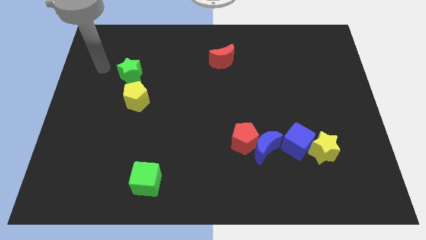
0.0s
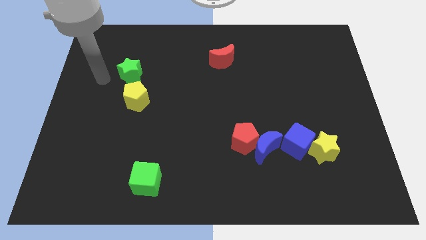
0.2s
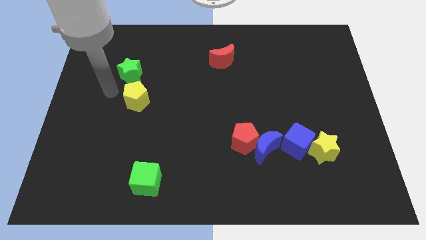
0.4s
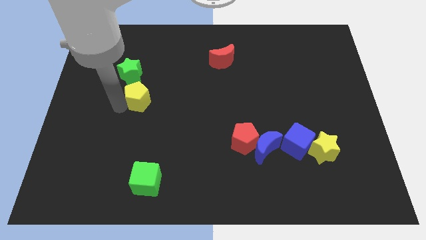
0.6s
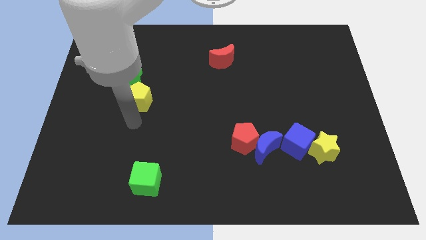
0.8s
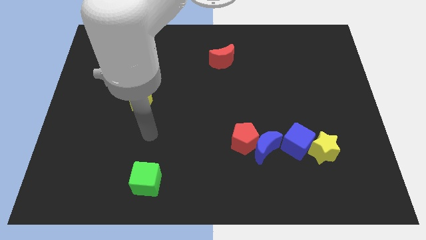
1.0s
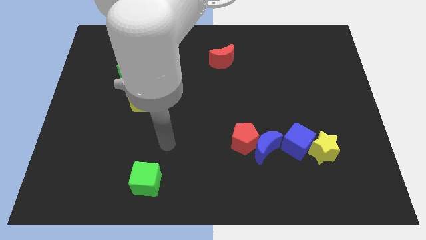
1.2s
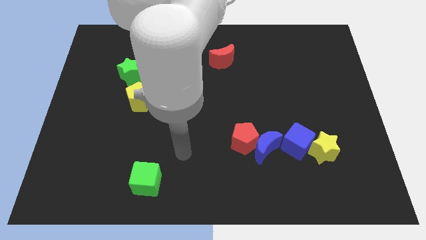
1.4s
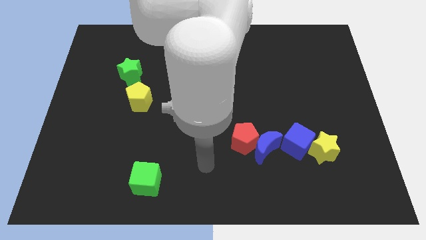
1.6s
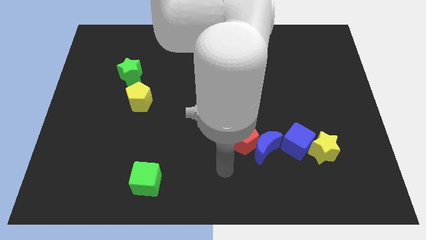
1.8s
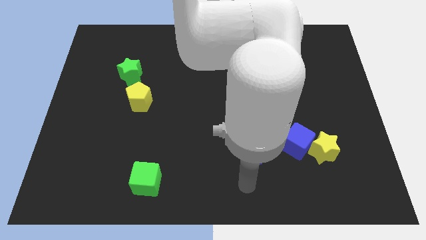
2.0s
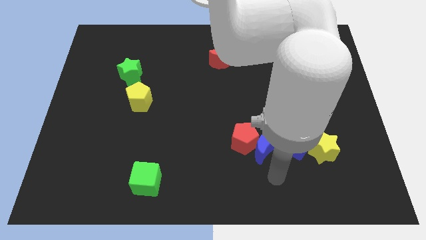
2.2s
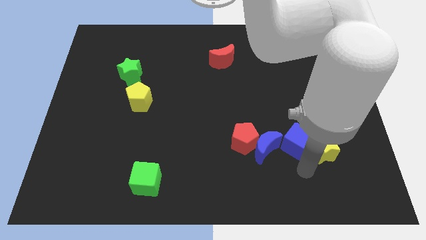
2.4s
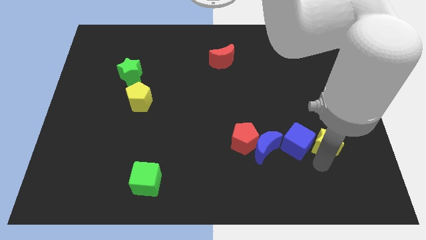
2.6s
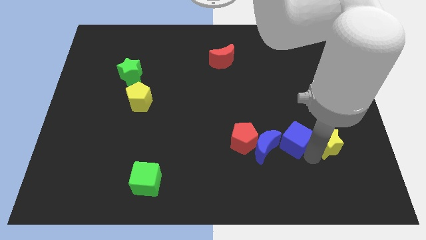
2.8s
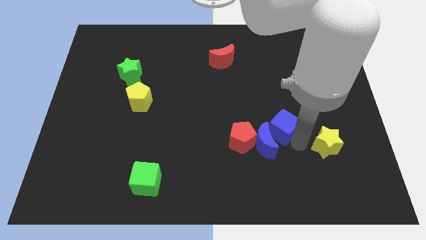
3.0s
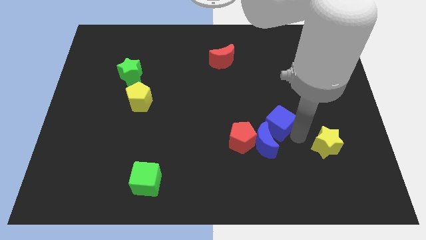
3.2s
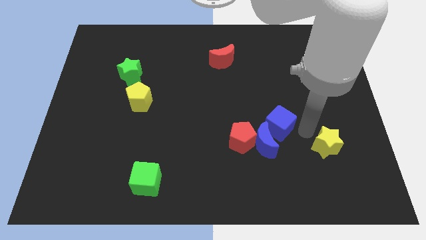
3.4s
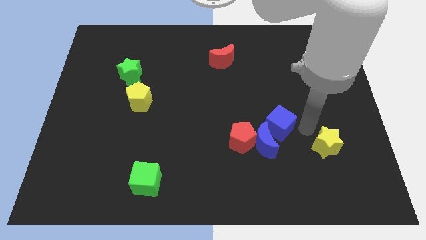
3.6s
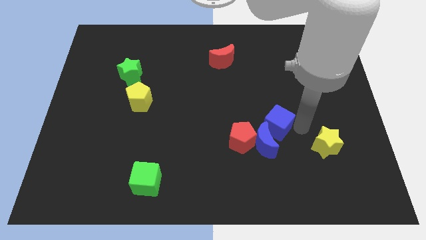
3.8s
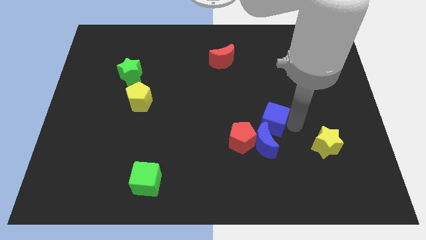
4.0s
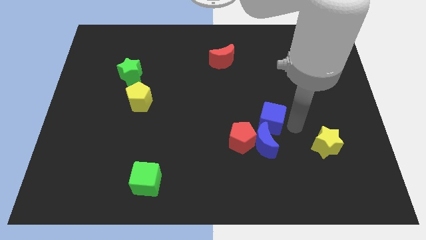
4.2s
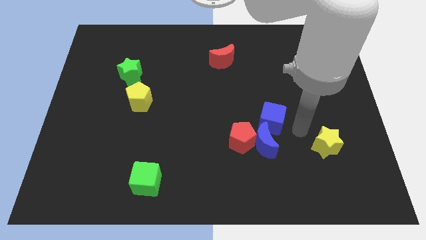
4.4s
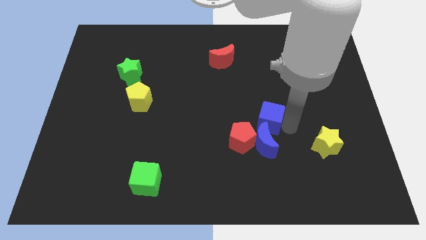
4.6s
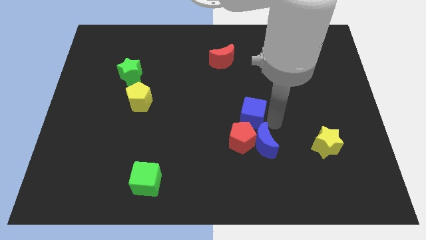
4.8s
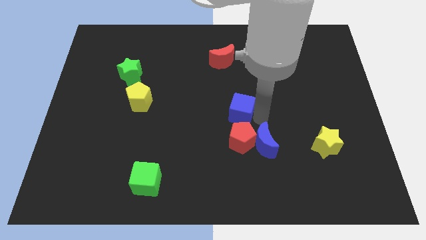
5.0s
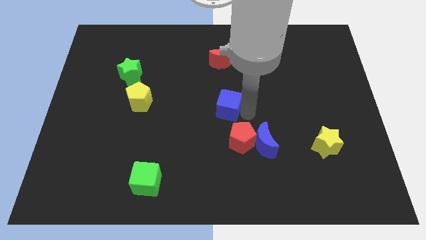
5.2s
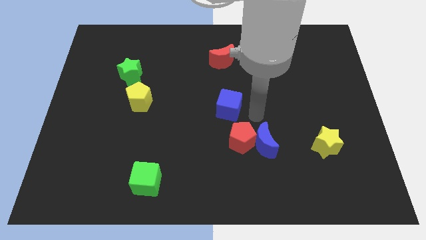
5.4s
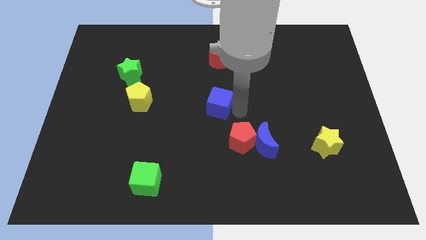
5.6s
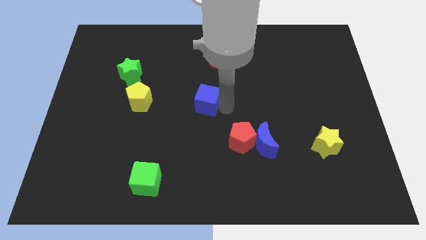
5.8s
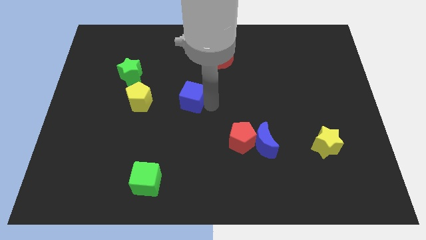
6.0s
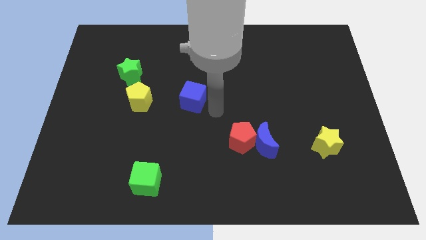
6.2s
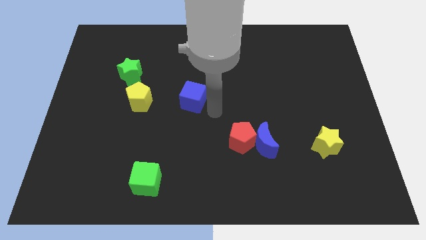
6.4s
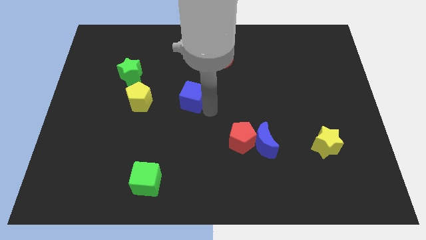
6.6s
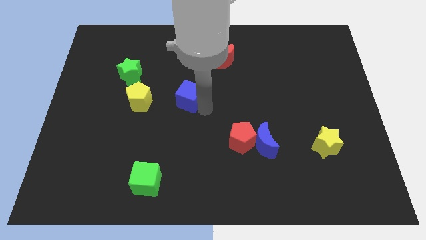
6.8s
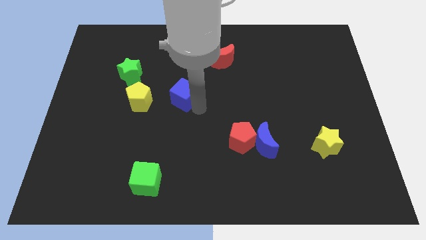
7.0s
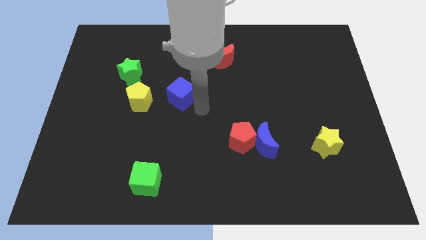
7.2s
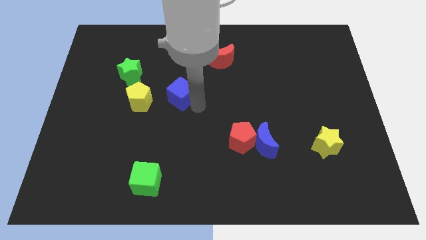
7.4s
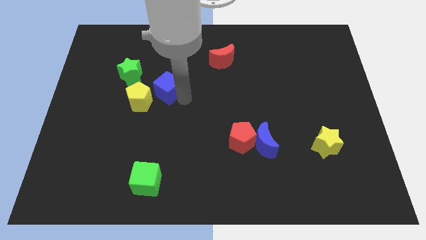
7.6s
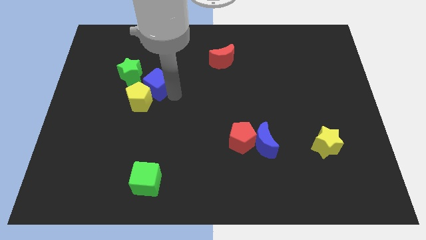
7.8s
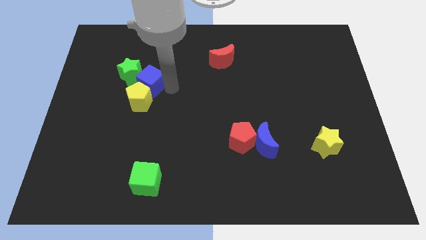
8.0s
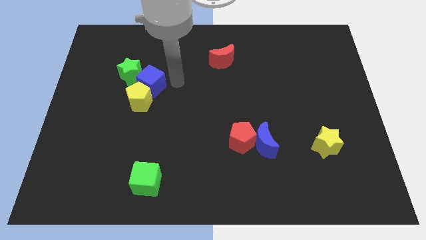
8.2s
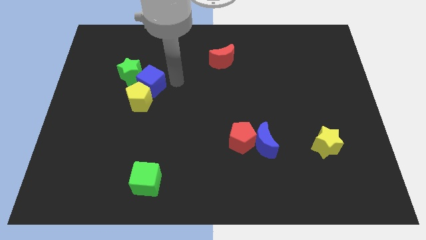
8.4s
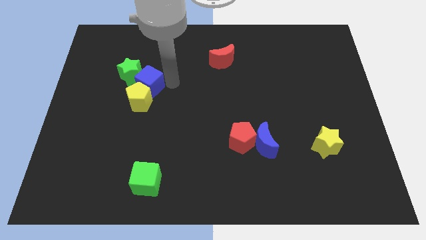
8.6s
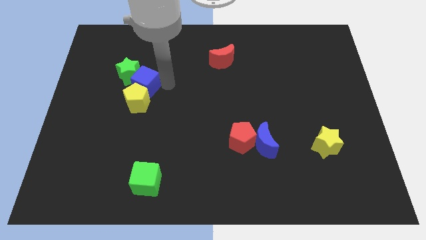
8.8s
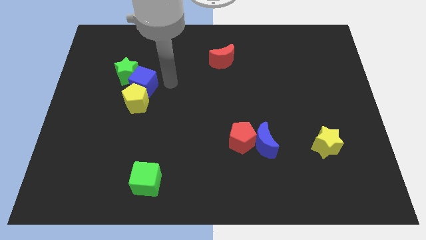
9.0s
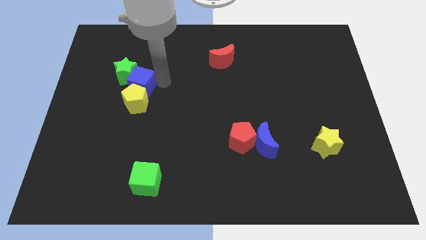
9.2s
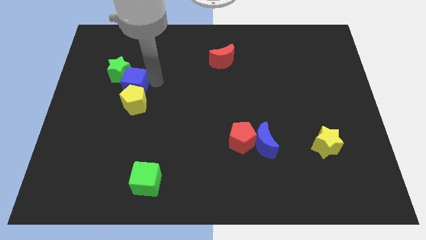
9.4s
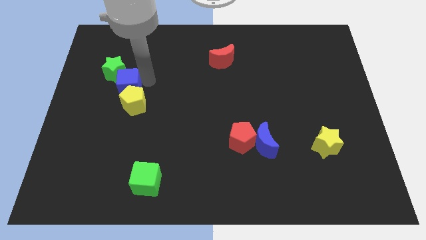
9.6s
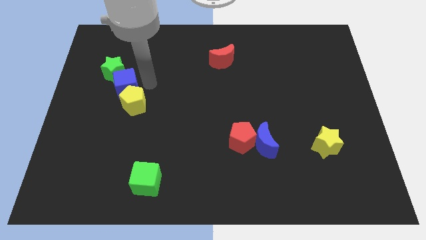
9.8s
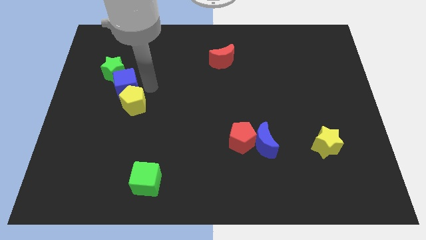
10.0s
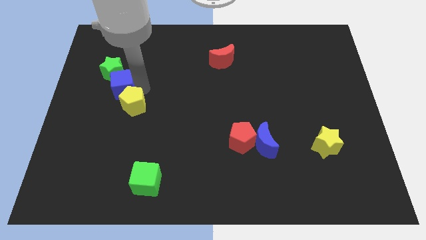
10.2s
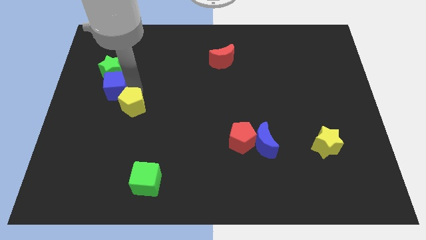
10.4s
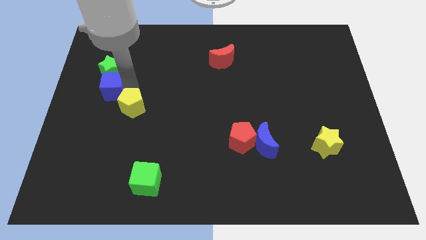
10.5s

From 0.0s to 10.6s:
put the blue cube to the bottom left of the green star

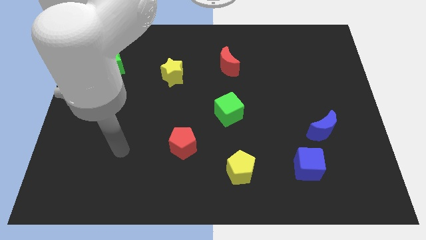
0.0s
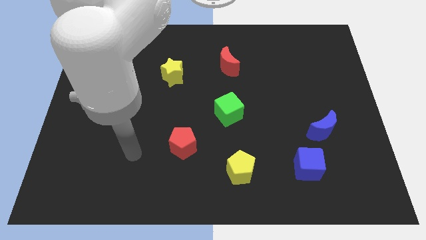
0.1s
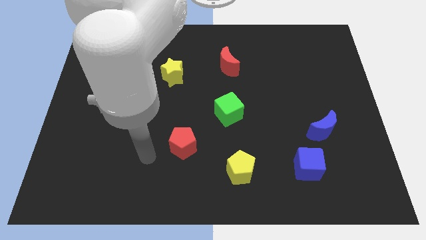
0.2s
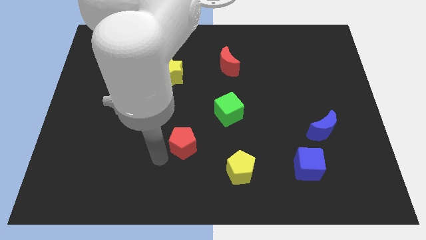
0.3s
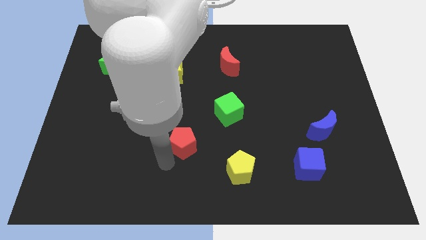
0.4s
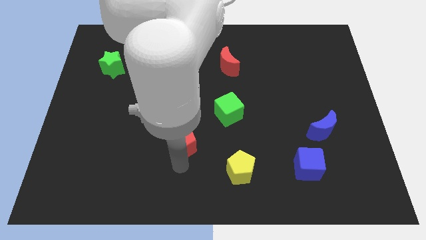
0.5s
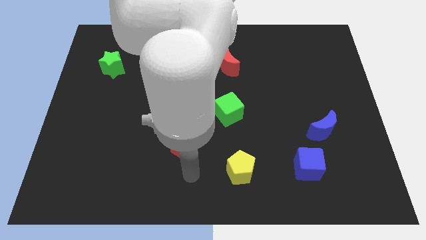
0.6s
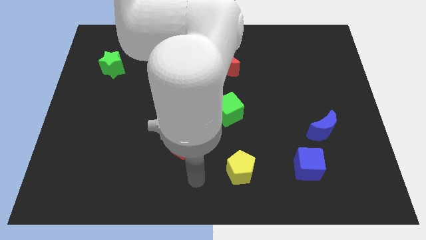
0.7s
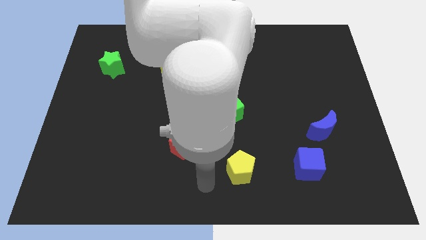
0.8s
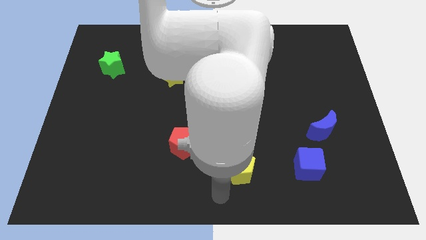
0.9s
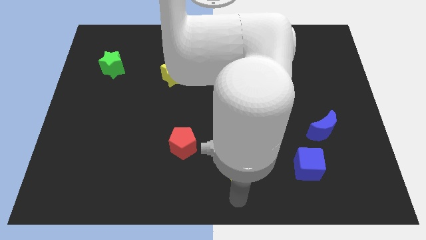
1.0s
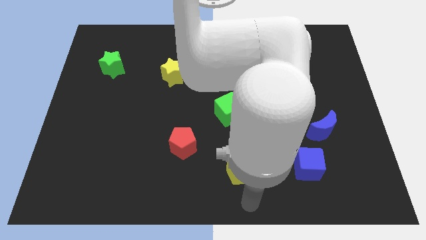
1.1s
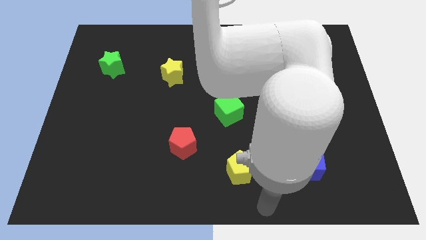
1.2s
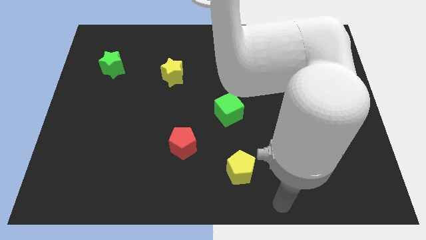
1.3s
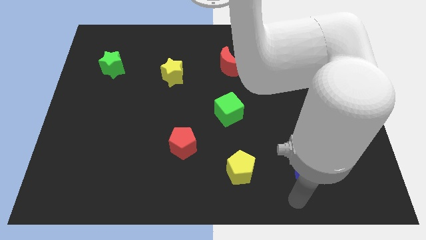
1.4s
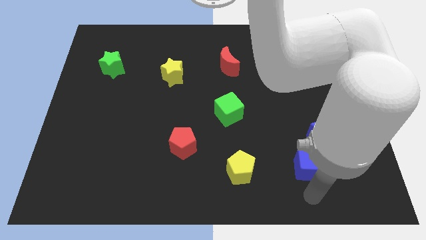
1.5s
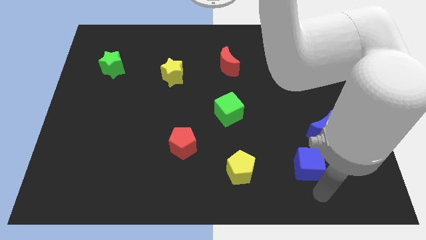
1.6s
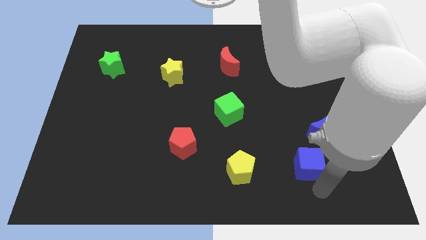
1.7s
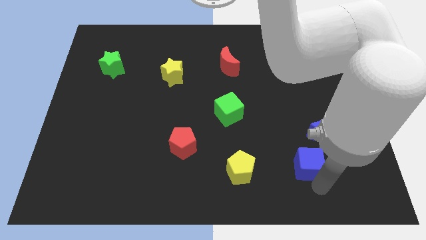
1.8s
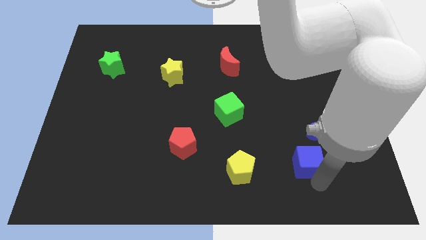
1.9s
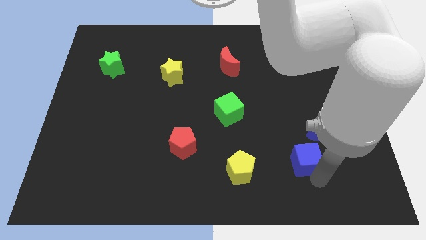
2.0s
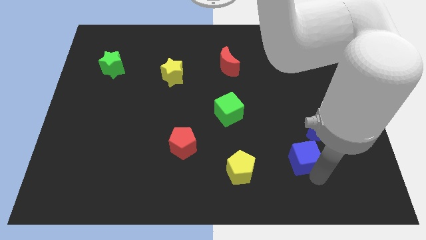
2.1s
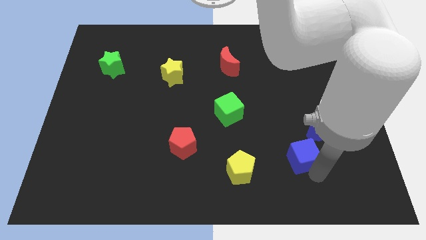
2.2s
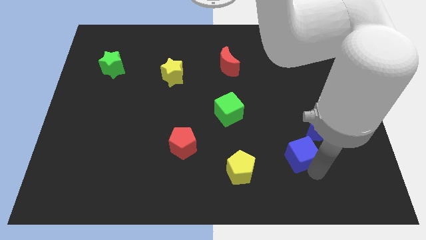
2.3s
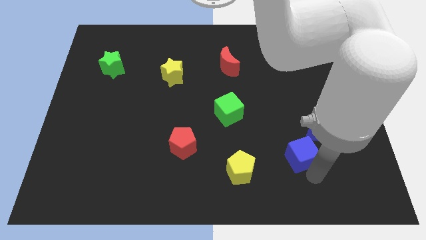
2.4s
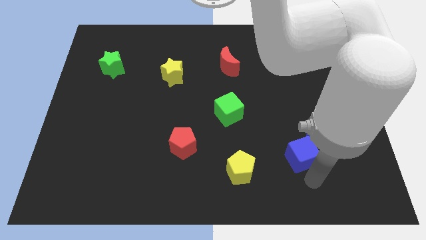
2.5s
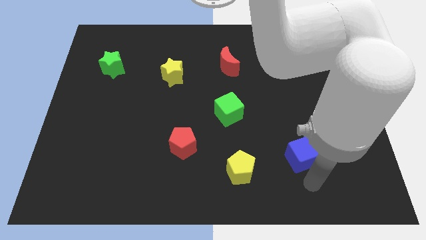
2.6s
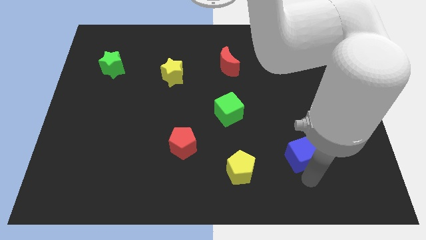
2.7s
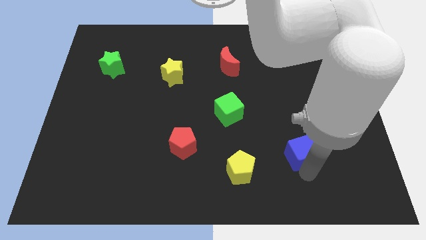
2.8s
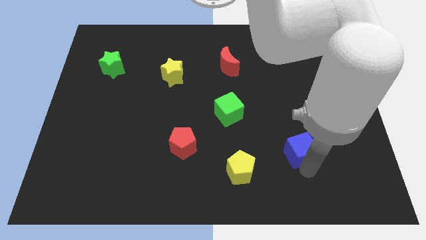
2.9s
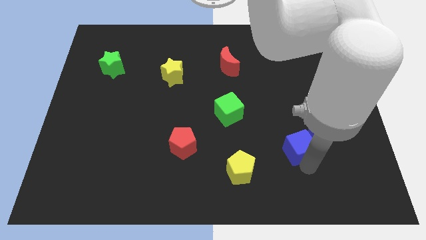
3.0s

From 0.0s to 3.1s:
put the blue cube to the left of the blue moon
